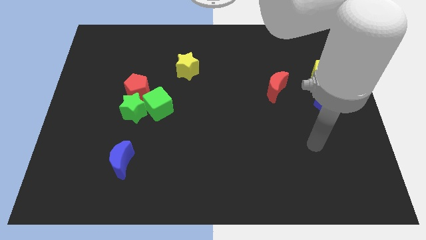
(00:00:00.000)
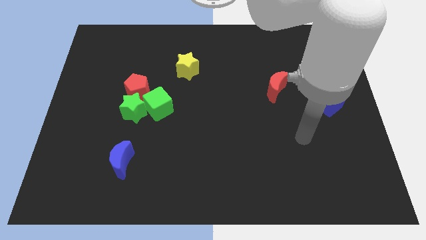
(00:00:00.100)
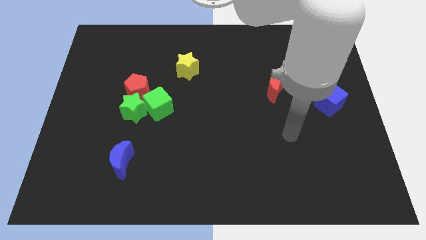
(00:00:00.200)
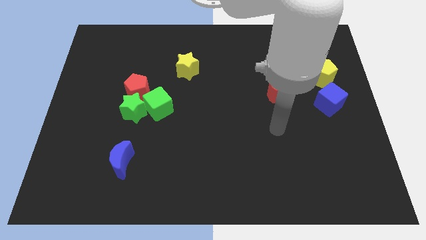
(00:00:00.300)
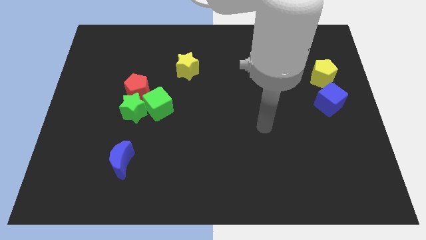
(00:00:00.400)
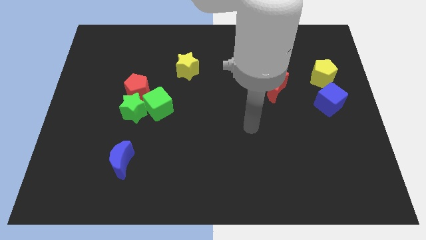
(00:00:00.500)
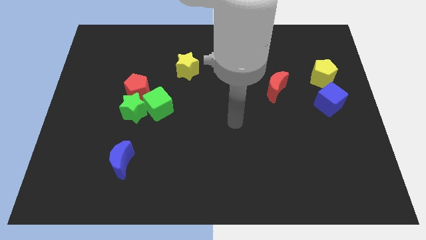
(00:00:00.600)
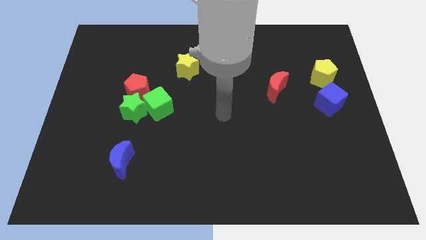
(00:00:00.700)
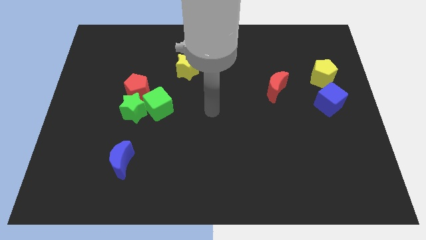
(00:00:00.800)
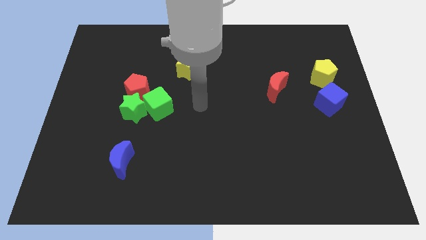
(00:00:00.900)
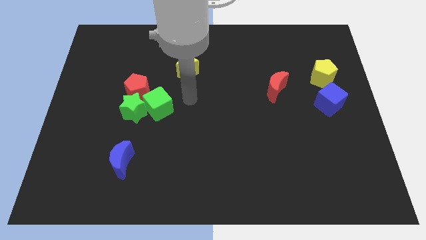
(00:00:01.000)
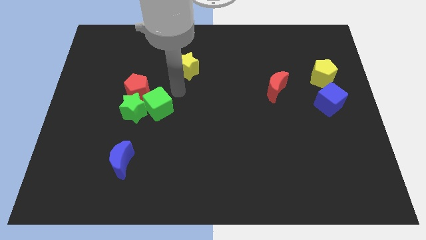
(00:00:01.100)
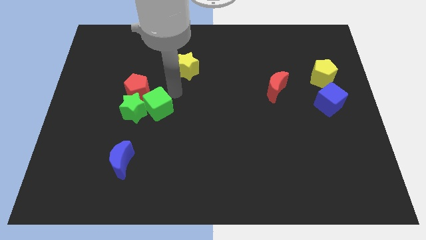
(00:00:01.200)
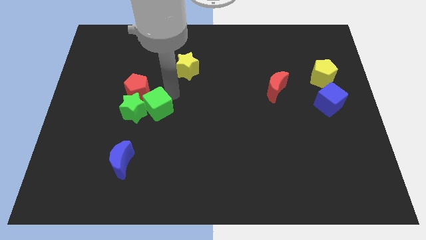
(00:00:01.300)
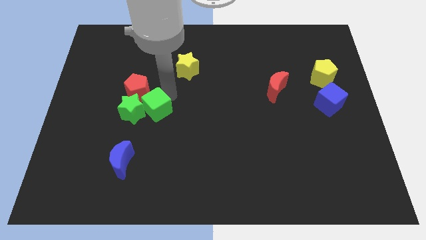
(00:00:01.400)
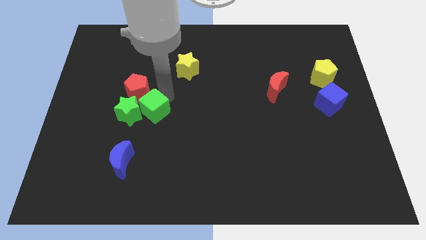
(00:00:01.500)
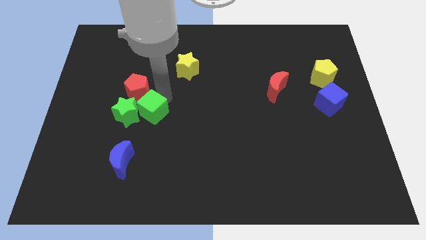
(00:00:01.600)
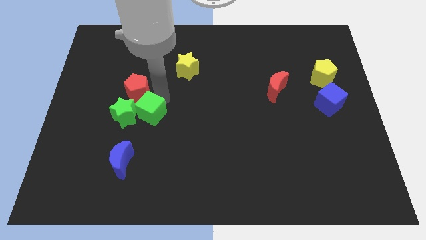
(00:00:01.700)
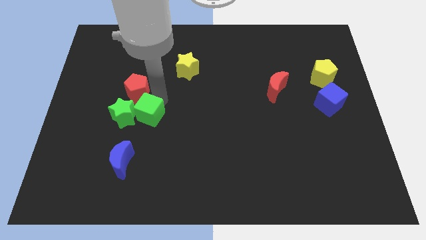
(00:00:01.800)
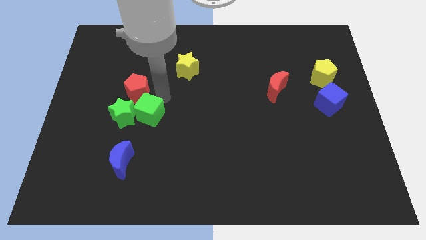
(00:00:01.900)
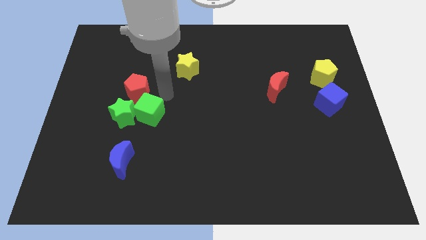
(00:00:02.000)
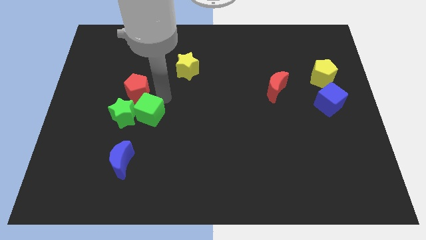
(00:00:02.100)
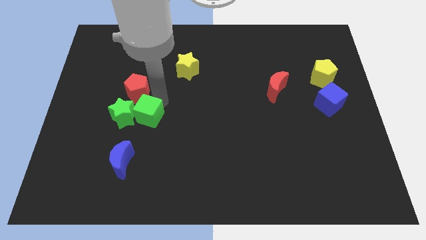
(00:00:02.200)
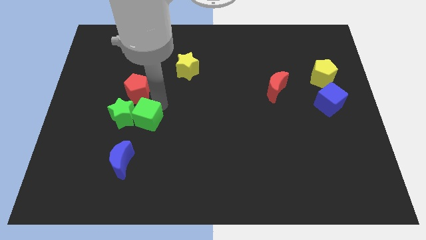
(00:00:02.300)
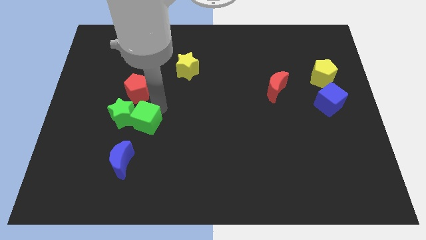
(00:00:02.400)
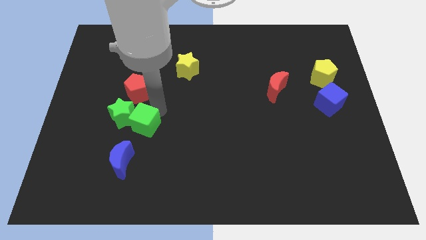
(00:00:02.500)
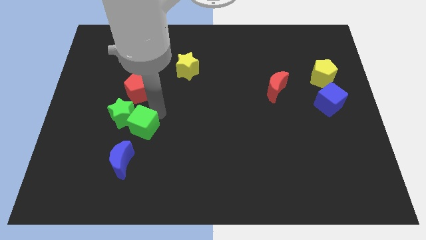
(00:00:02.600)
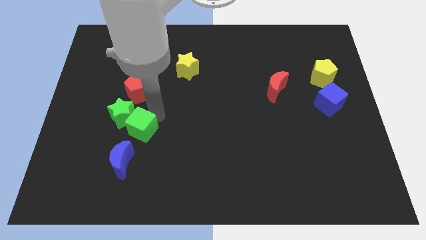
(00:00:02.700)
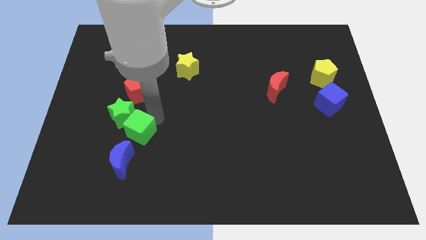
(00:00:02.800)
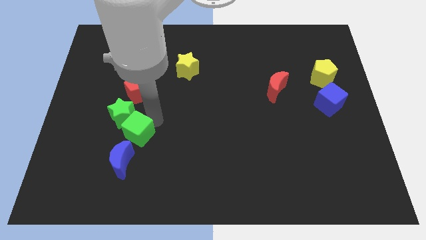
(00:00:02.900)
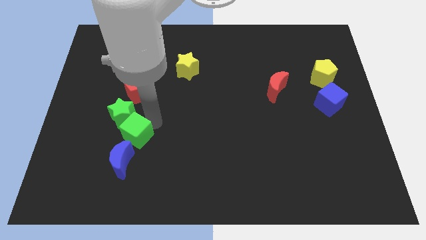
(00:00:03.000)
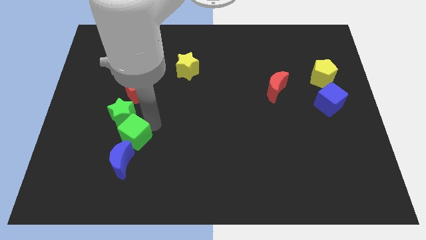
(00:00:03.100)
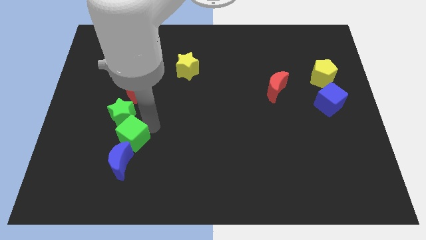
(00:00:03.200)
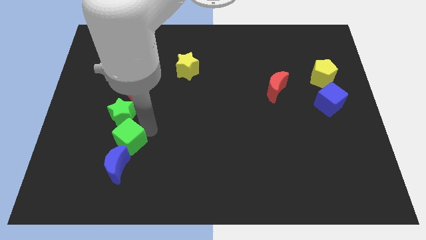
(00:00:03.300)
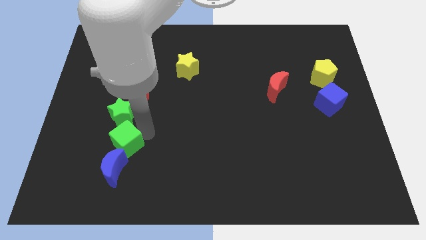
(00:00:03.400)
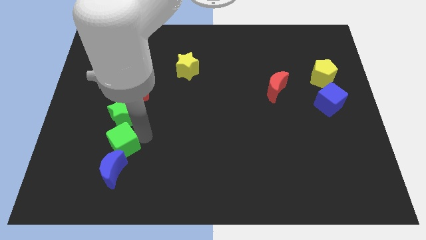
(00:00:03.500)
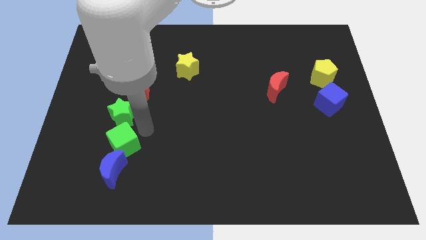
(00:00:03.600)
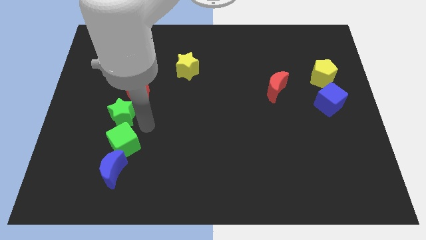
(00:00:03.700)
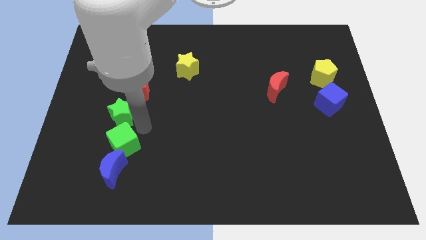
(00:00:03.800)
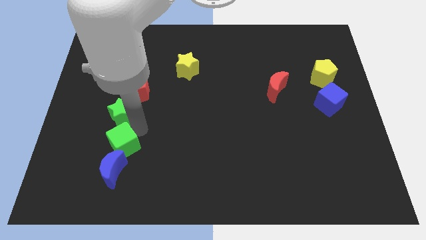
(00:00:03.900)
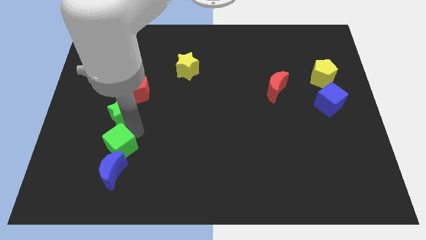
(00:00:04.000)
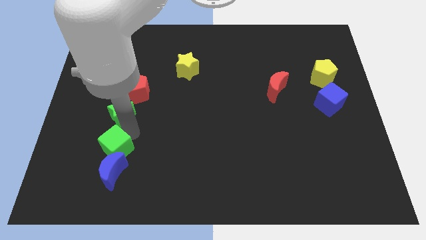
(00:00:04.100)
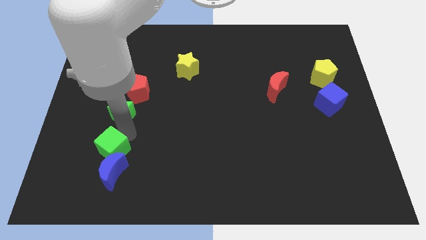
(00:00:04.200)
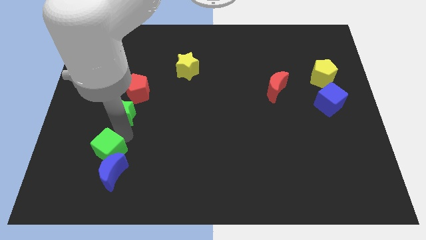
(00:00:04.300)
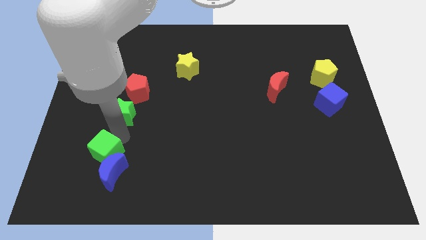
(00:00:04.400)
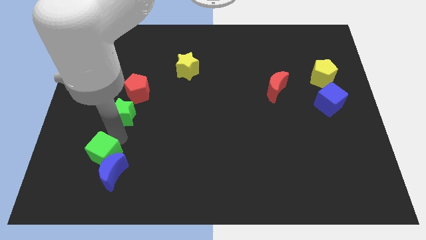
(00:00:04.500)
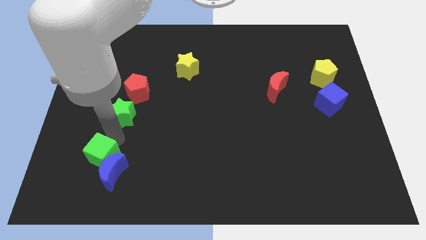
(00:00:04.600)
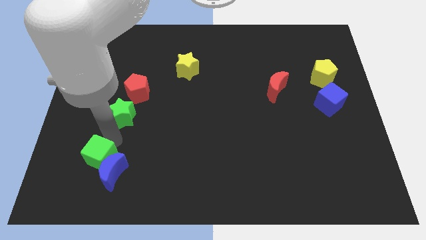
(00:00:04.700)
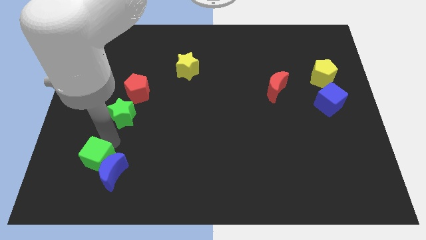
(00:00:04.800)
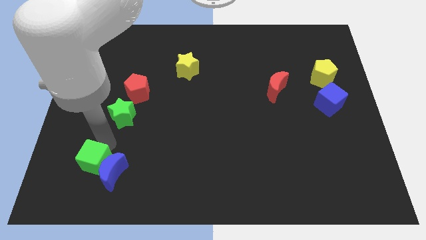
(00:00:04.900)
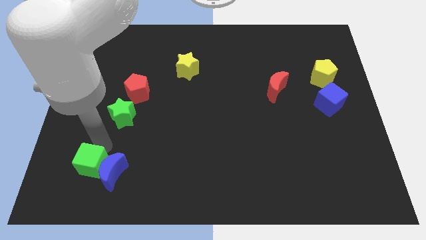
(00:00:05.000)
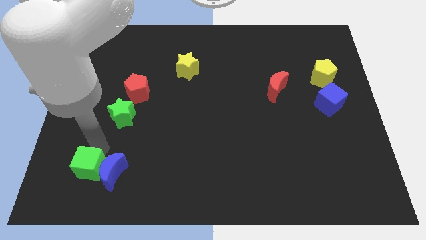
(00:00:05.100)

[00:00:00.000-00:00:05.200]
move the green cube diagonally down and to the left of the blue moon

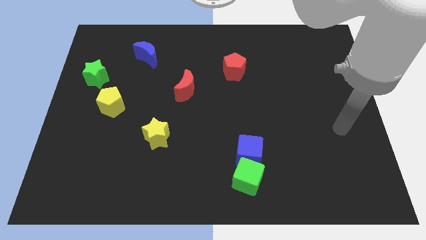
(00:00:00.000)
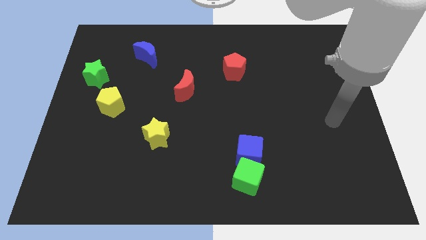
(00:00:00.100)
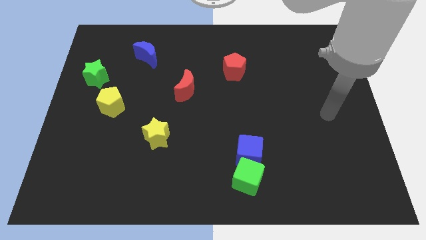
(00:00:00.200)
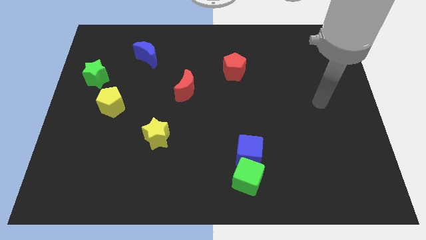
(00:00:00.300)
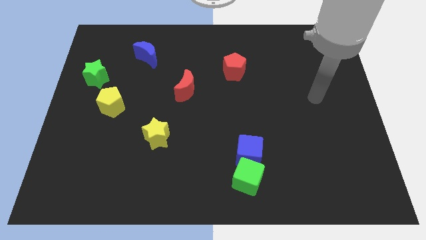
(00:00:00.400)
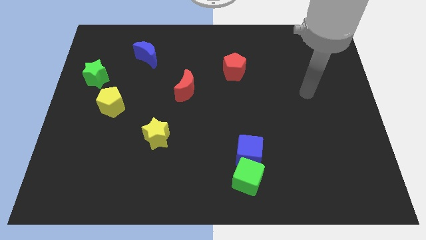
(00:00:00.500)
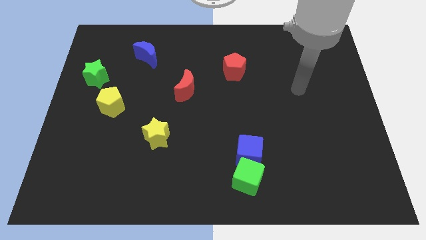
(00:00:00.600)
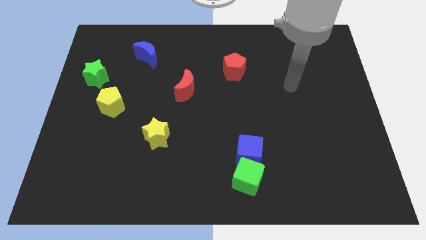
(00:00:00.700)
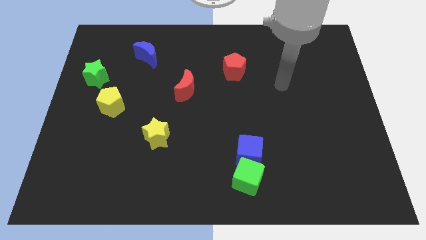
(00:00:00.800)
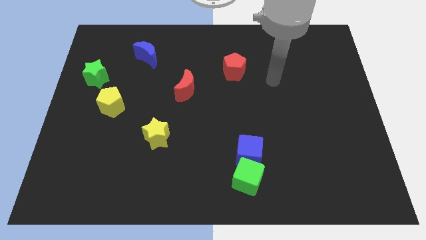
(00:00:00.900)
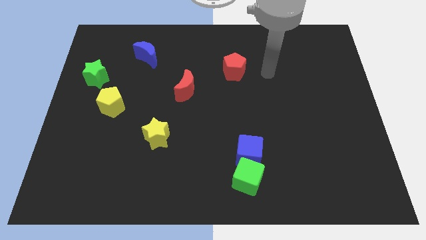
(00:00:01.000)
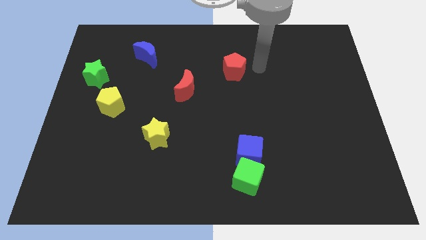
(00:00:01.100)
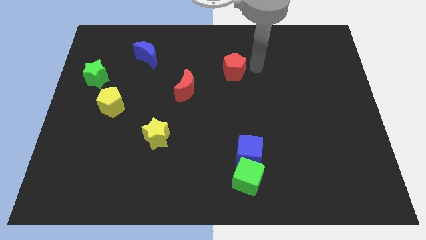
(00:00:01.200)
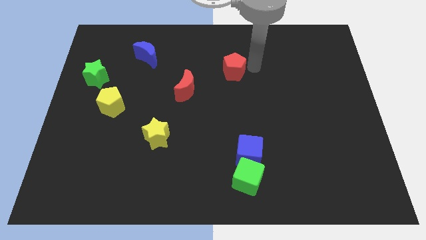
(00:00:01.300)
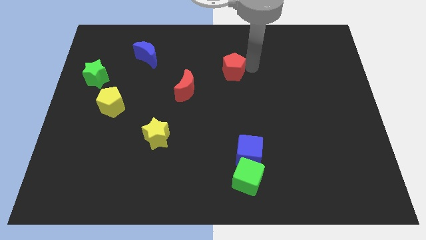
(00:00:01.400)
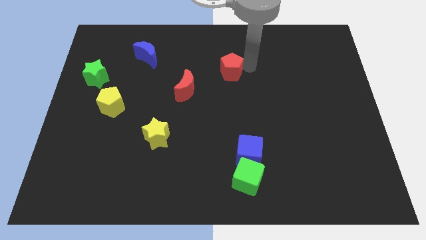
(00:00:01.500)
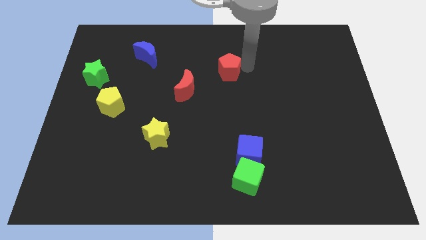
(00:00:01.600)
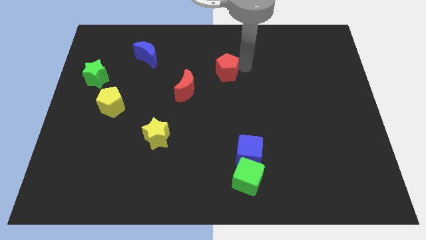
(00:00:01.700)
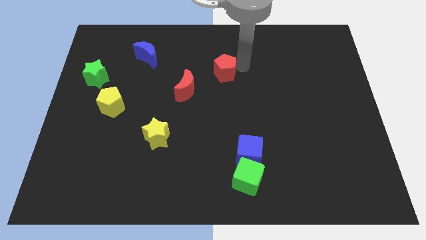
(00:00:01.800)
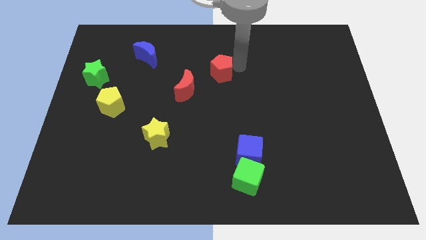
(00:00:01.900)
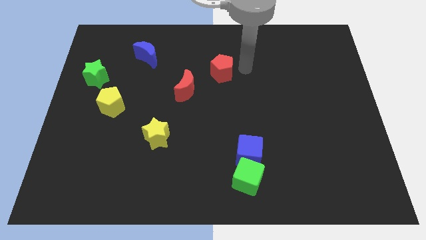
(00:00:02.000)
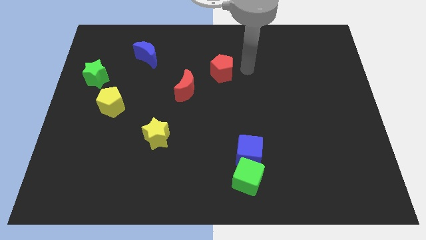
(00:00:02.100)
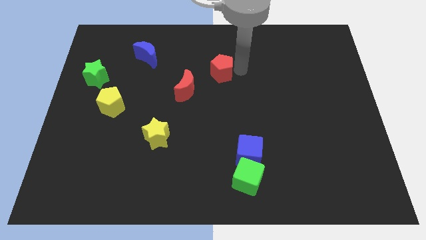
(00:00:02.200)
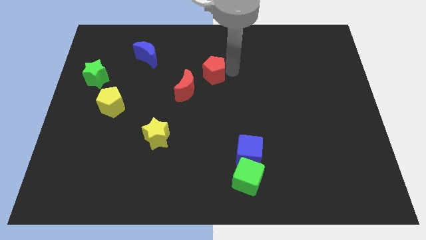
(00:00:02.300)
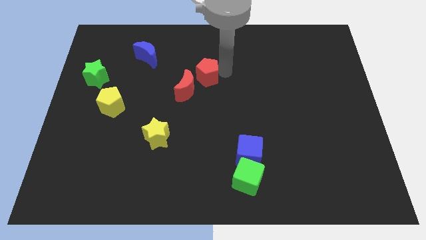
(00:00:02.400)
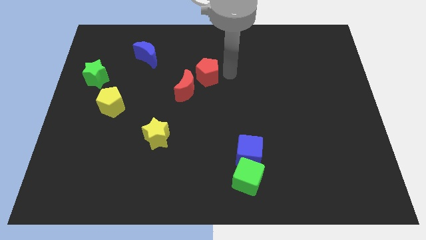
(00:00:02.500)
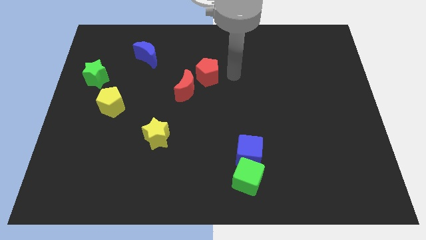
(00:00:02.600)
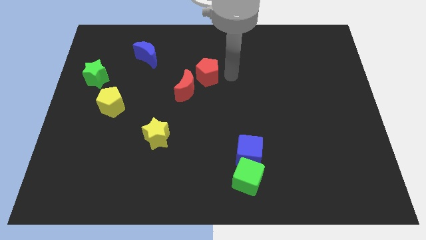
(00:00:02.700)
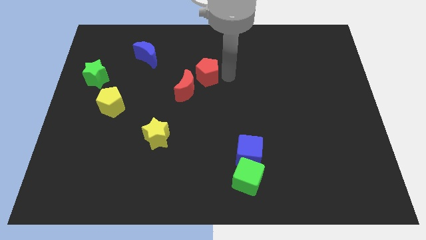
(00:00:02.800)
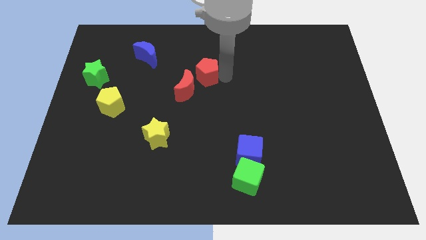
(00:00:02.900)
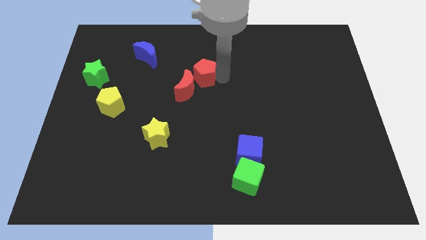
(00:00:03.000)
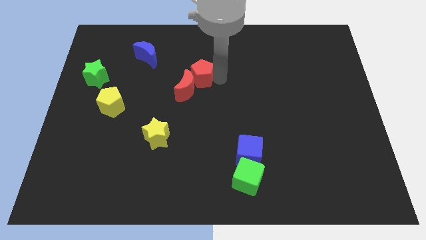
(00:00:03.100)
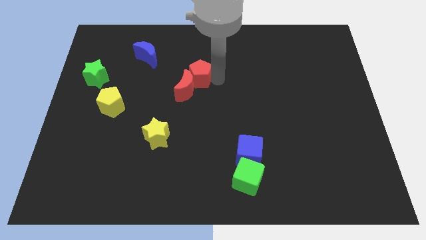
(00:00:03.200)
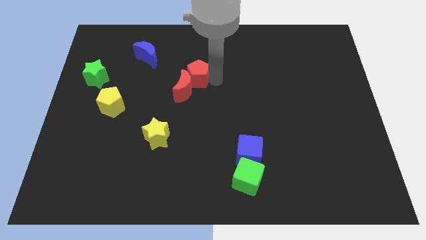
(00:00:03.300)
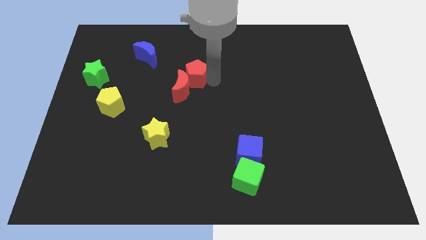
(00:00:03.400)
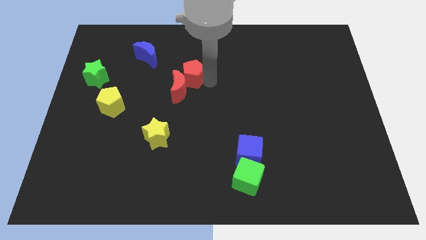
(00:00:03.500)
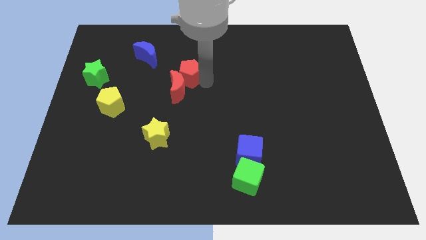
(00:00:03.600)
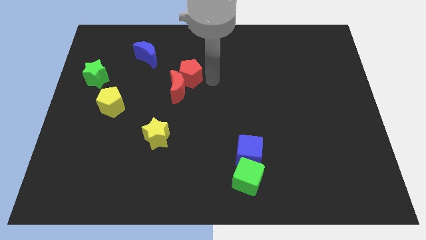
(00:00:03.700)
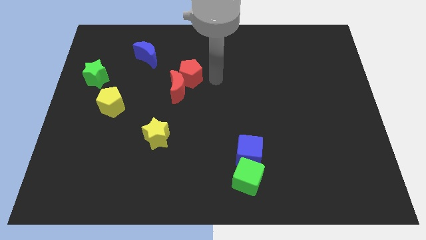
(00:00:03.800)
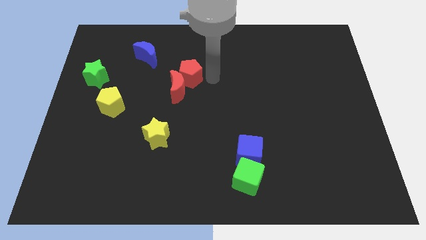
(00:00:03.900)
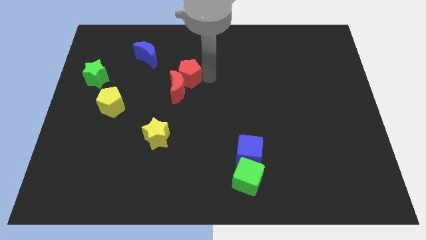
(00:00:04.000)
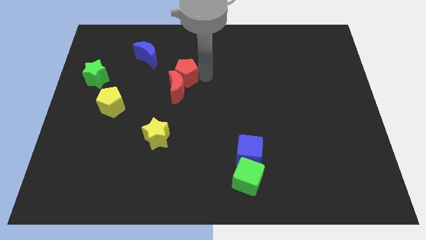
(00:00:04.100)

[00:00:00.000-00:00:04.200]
push the red pentagon to the top left of the red moon
